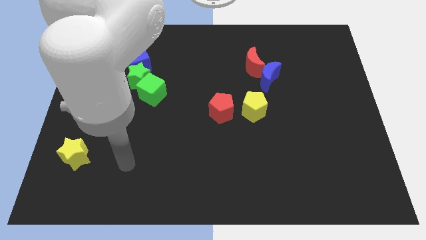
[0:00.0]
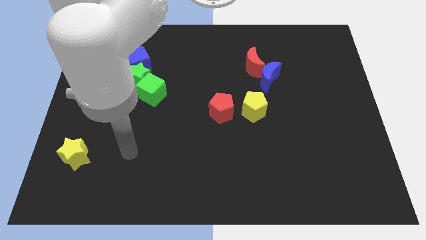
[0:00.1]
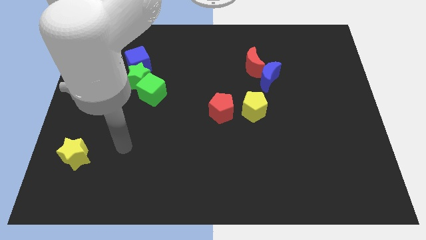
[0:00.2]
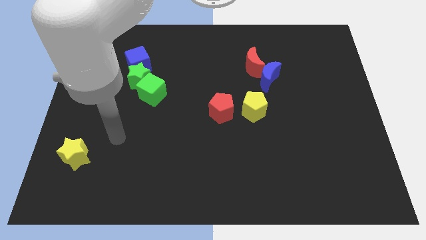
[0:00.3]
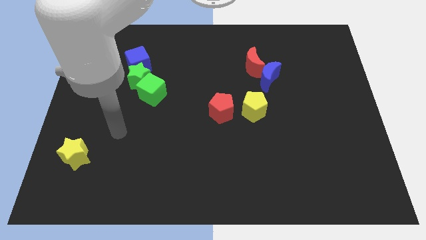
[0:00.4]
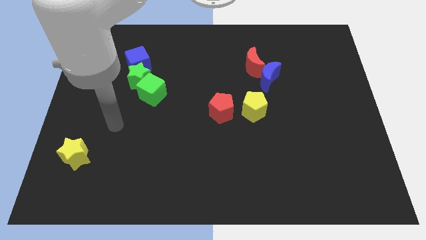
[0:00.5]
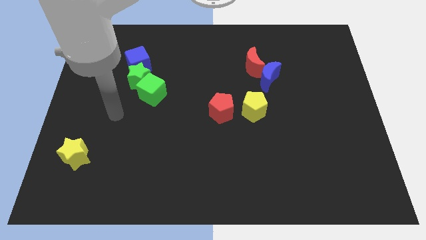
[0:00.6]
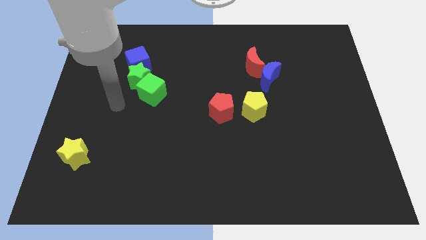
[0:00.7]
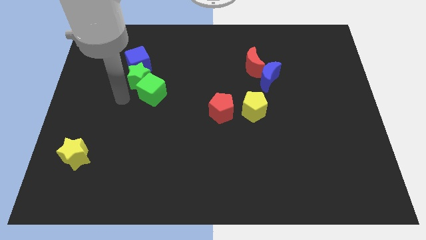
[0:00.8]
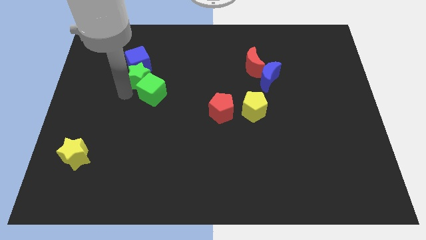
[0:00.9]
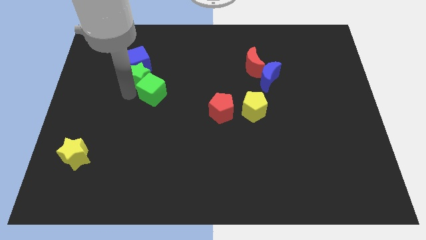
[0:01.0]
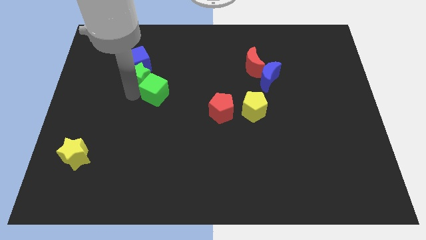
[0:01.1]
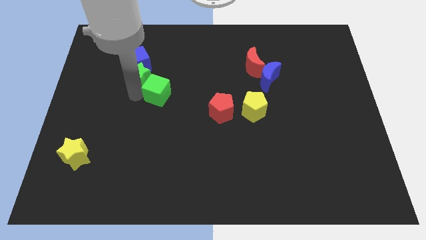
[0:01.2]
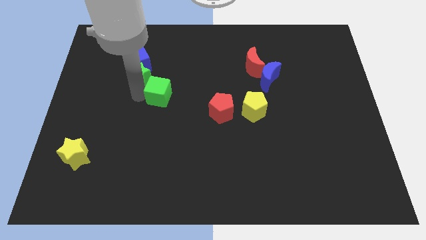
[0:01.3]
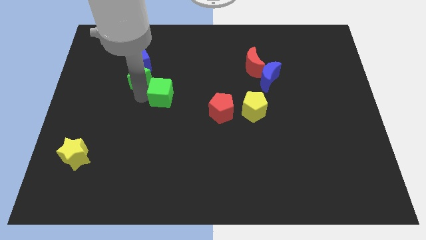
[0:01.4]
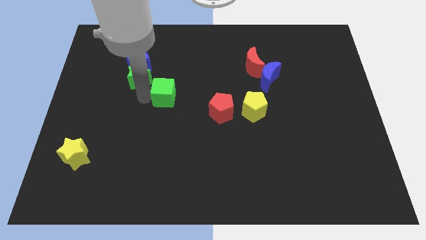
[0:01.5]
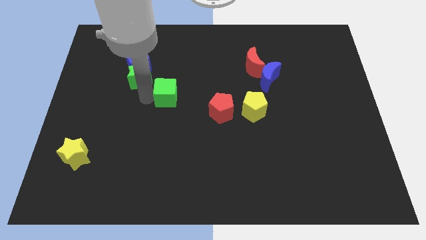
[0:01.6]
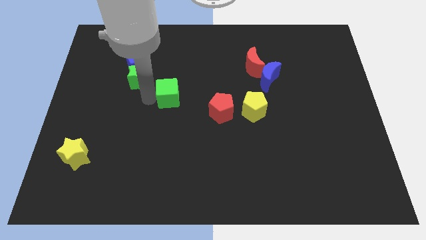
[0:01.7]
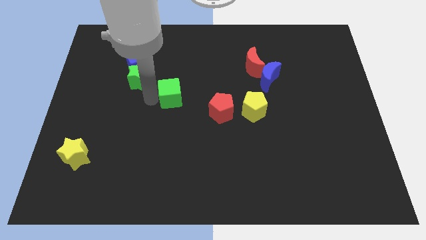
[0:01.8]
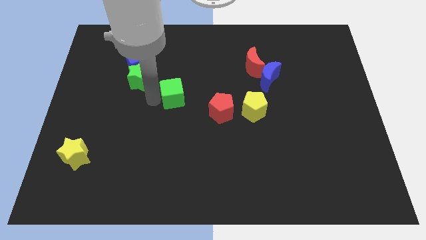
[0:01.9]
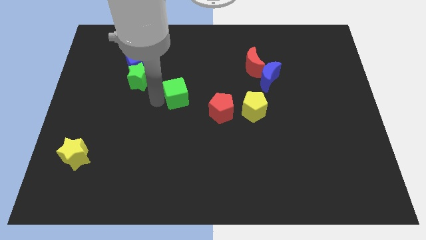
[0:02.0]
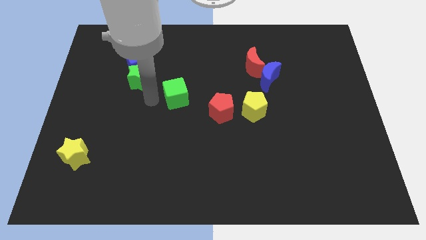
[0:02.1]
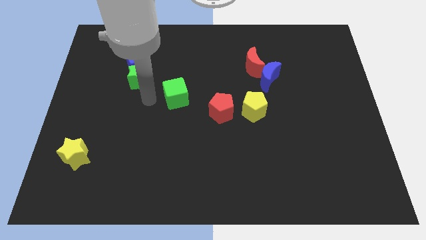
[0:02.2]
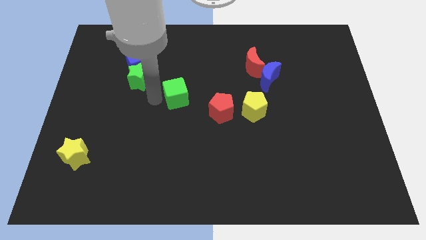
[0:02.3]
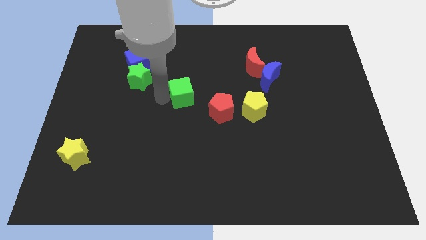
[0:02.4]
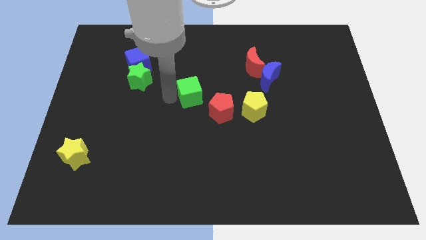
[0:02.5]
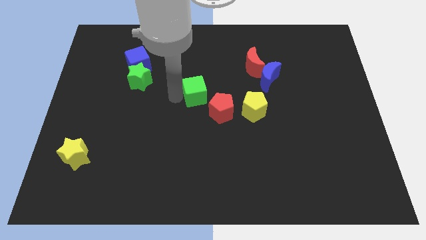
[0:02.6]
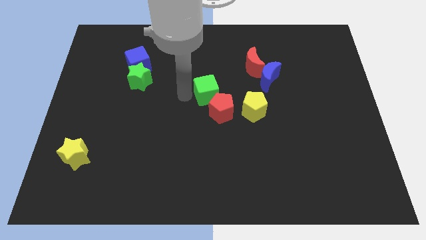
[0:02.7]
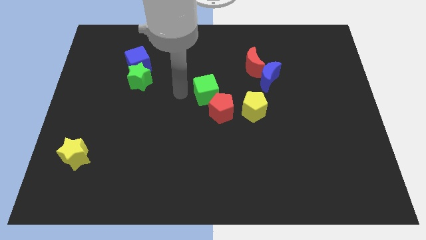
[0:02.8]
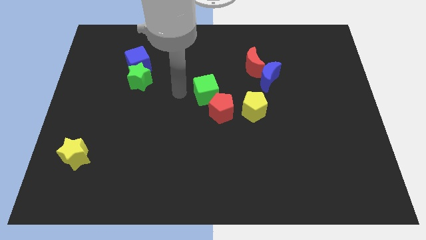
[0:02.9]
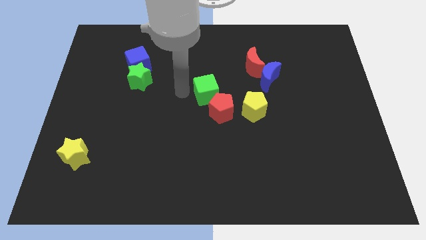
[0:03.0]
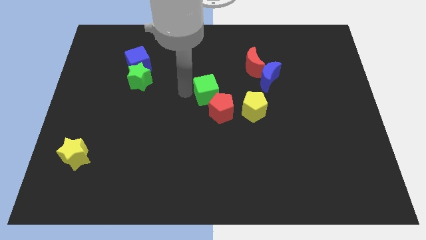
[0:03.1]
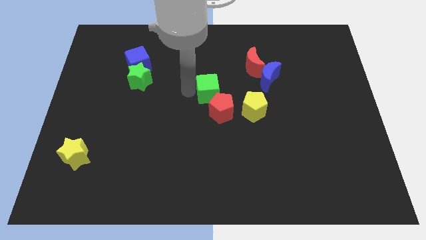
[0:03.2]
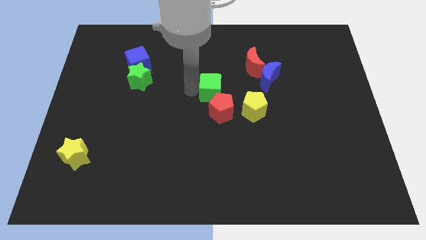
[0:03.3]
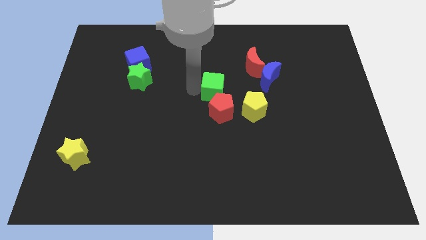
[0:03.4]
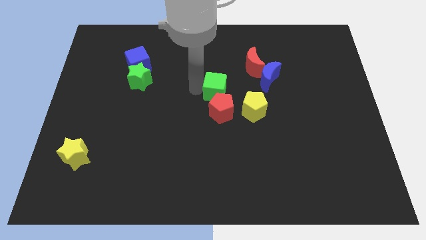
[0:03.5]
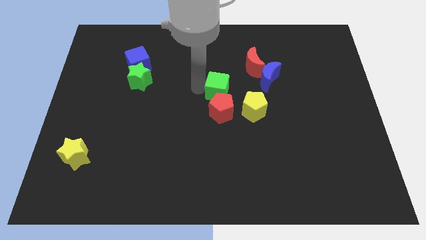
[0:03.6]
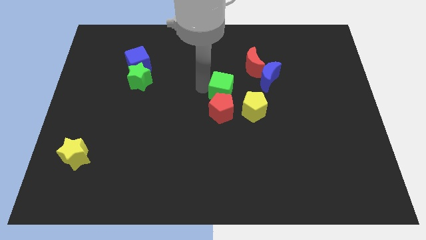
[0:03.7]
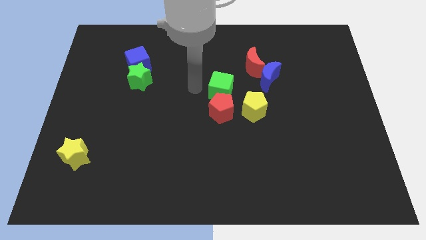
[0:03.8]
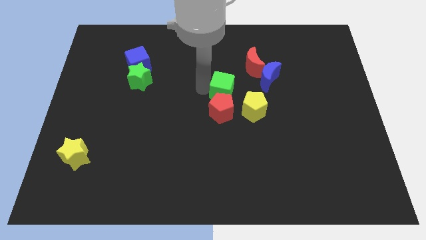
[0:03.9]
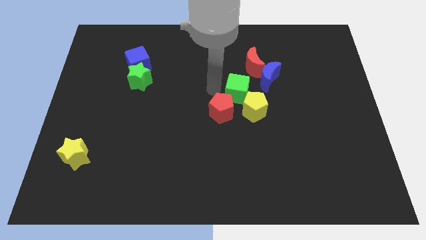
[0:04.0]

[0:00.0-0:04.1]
move the green cube right

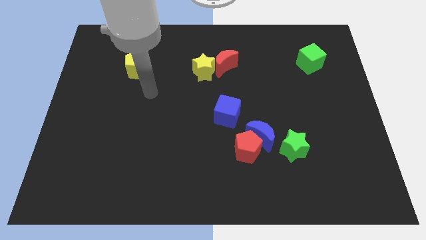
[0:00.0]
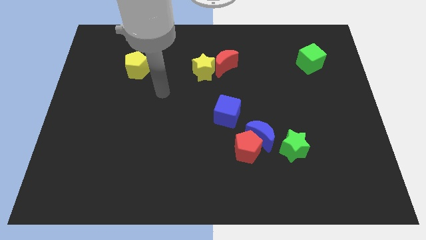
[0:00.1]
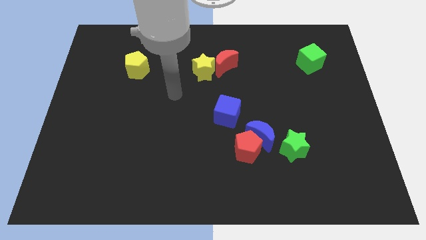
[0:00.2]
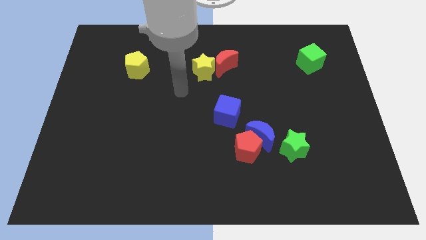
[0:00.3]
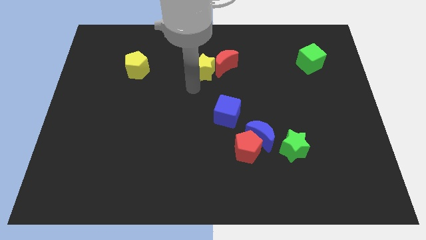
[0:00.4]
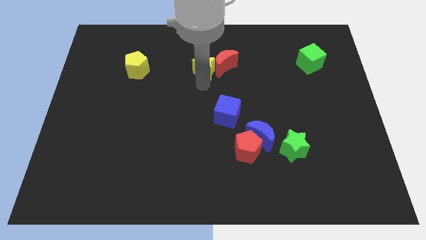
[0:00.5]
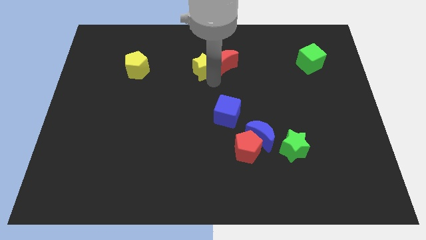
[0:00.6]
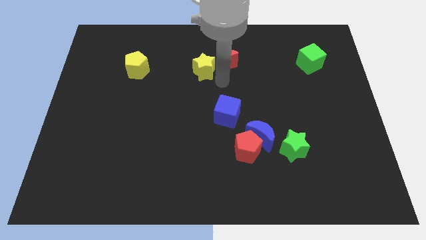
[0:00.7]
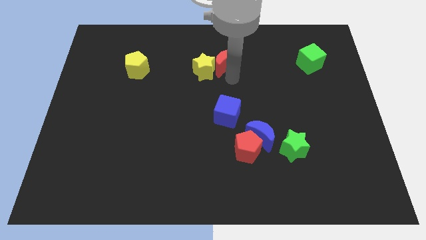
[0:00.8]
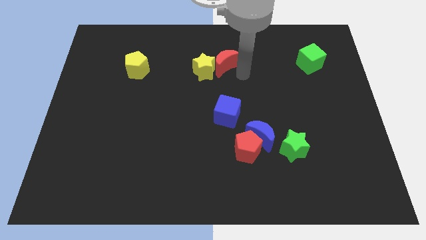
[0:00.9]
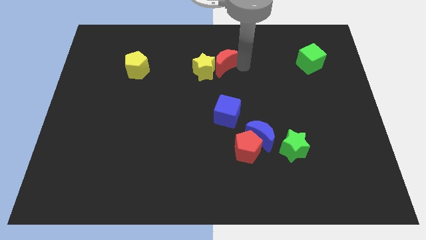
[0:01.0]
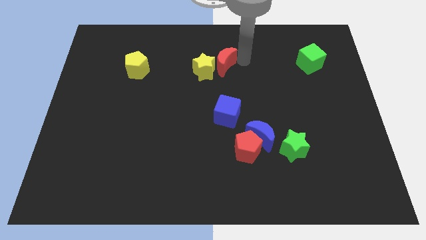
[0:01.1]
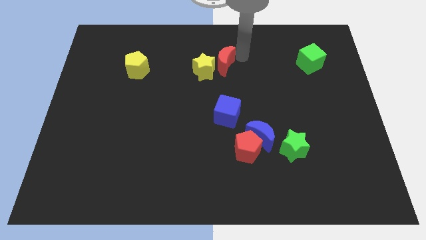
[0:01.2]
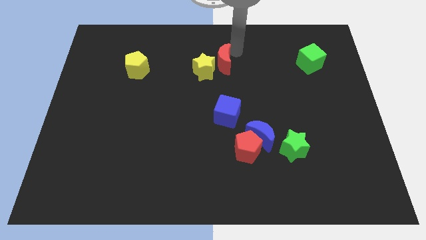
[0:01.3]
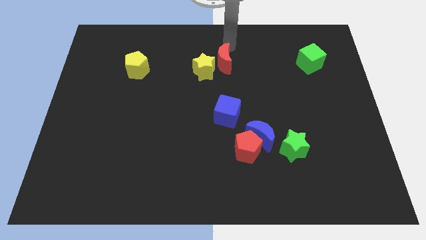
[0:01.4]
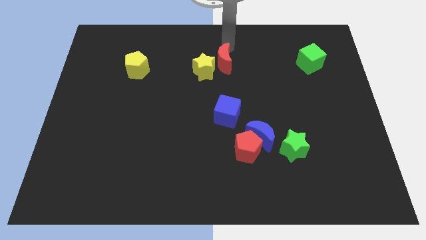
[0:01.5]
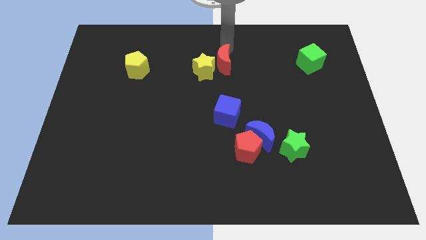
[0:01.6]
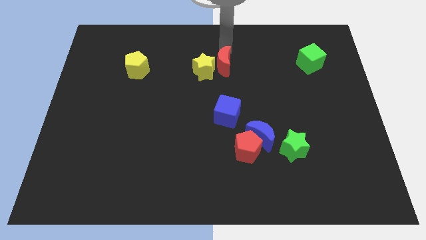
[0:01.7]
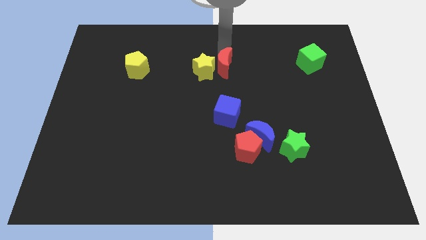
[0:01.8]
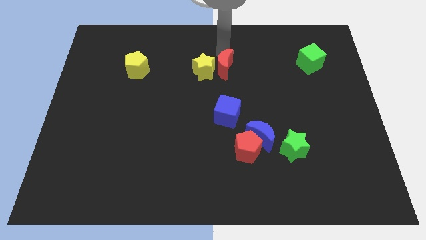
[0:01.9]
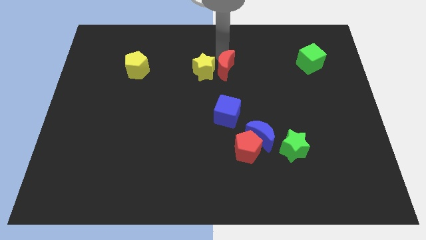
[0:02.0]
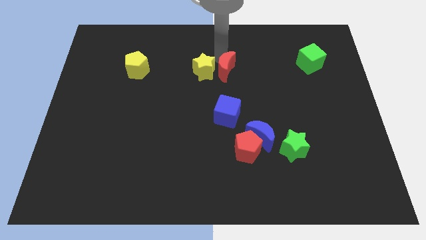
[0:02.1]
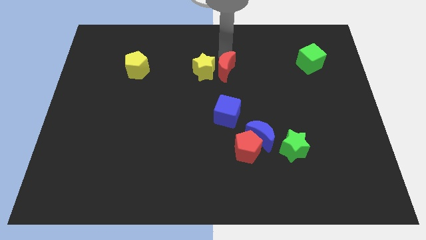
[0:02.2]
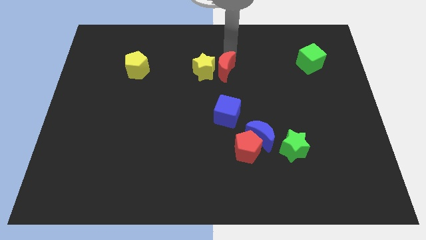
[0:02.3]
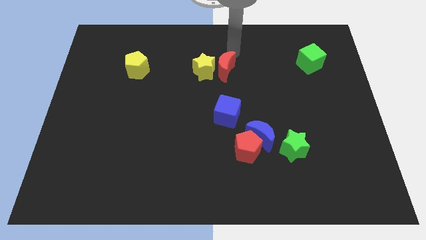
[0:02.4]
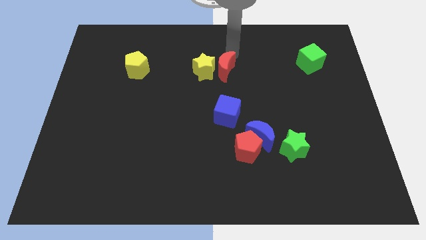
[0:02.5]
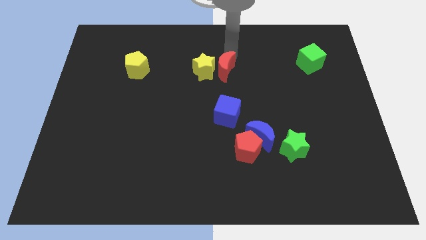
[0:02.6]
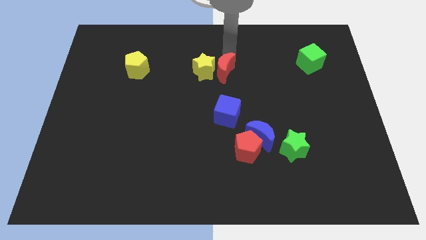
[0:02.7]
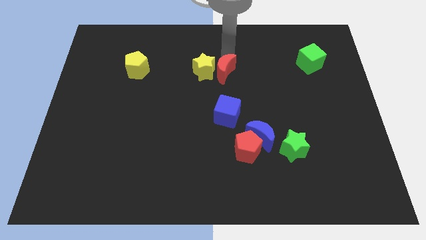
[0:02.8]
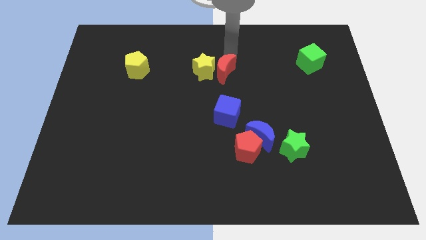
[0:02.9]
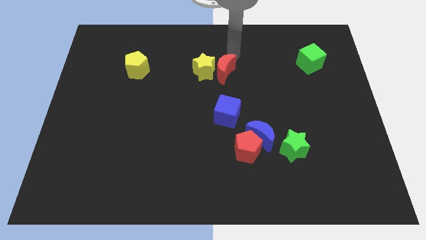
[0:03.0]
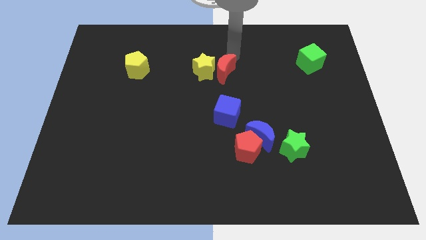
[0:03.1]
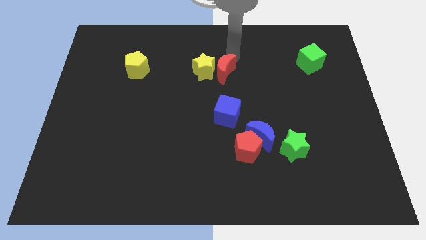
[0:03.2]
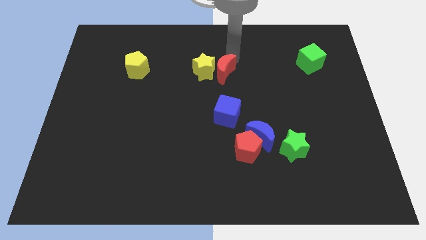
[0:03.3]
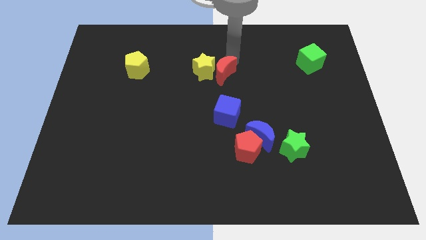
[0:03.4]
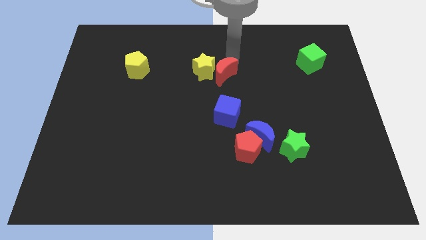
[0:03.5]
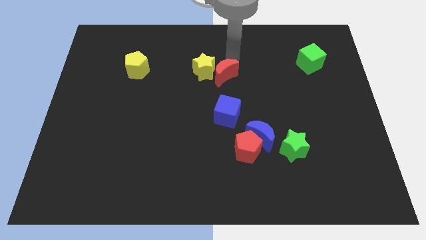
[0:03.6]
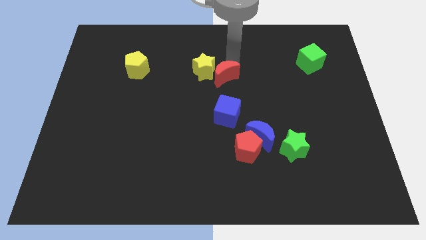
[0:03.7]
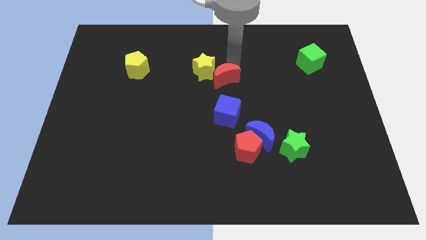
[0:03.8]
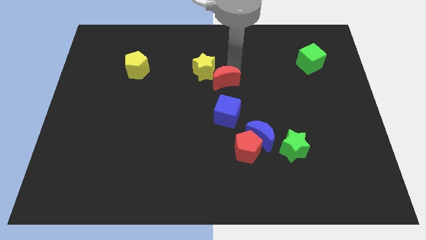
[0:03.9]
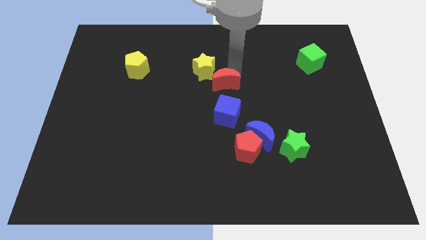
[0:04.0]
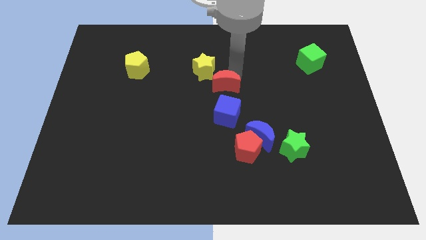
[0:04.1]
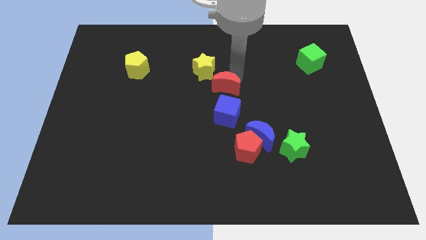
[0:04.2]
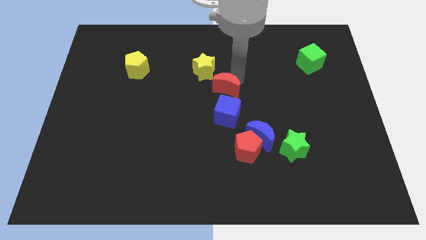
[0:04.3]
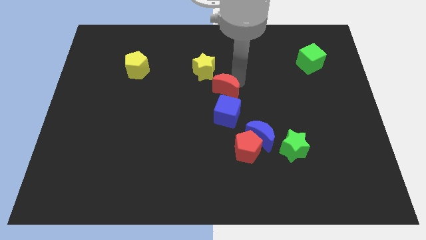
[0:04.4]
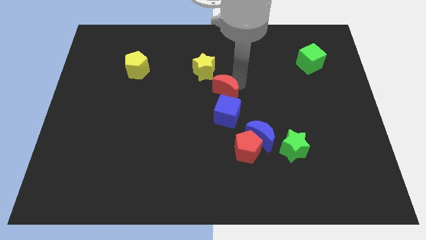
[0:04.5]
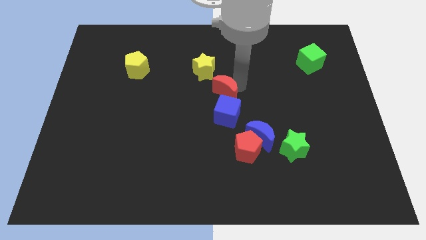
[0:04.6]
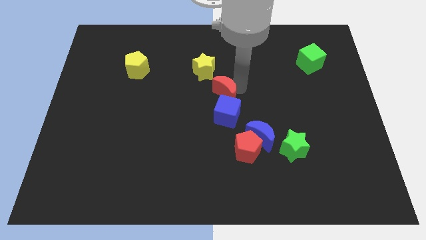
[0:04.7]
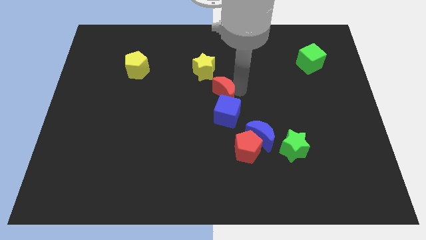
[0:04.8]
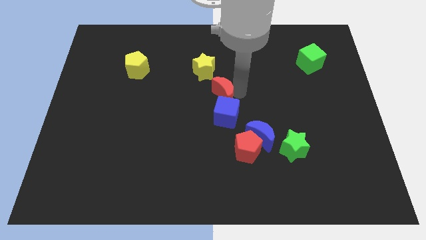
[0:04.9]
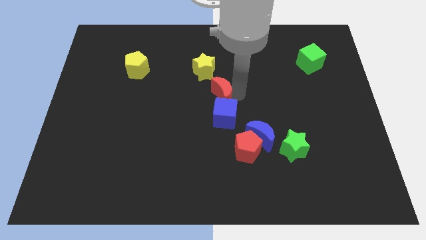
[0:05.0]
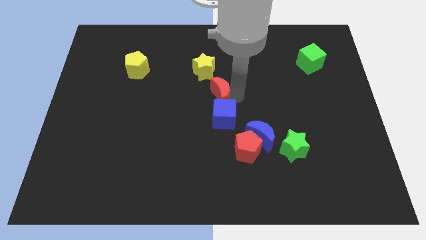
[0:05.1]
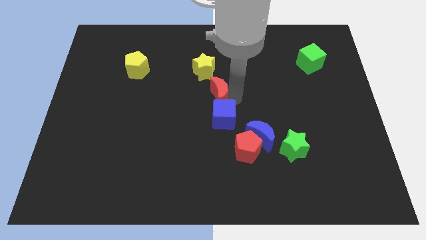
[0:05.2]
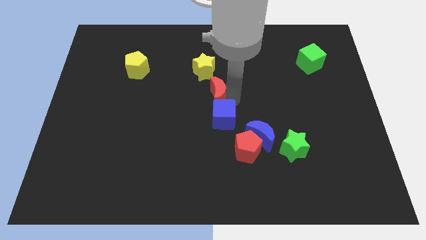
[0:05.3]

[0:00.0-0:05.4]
slightly move the red moon down and left diagonally
